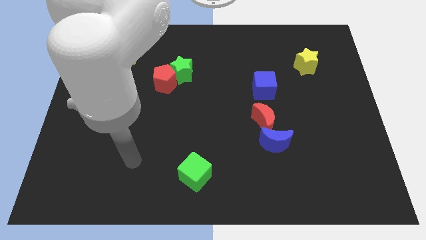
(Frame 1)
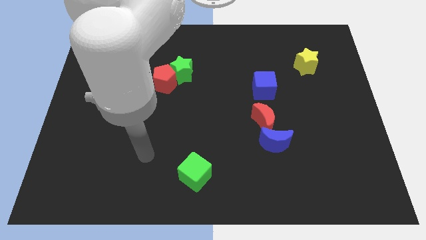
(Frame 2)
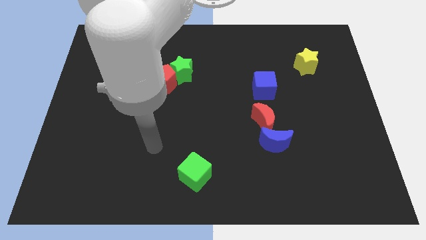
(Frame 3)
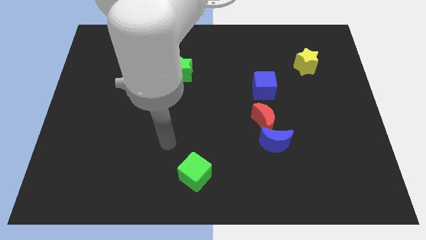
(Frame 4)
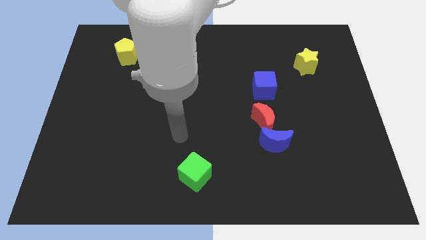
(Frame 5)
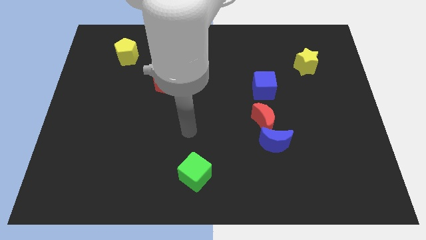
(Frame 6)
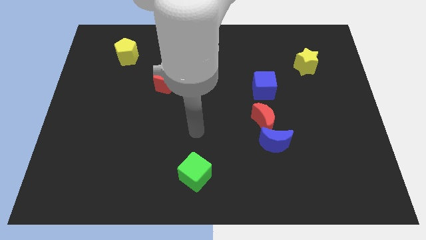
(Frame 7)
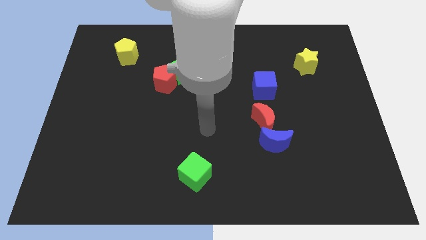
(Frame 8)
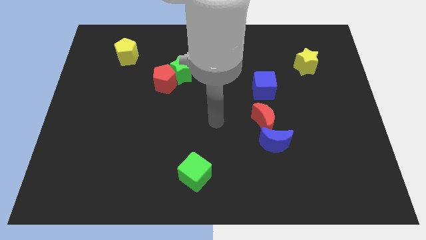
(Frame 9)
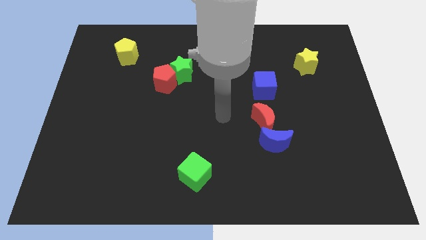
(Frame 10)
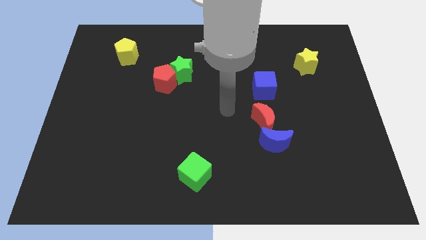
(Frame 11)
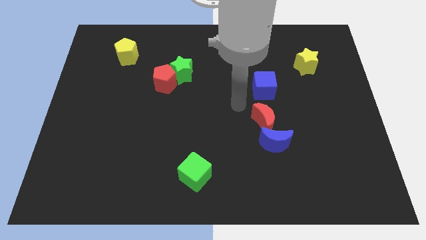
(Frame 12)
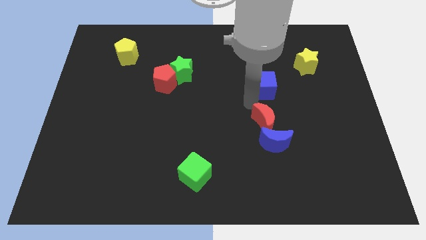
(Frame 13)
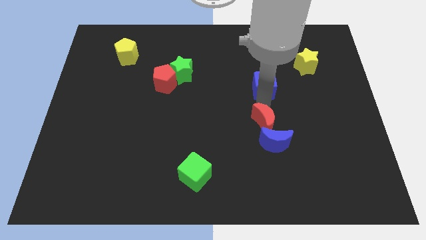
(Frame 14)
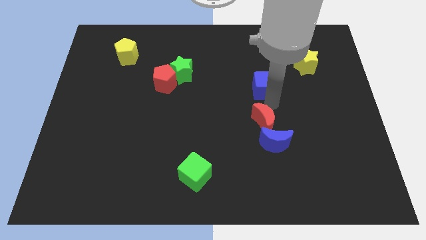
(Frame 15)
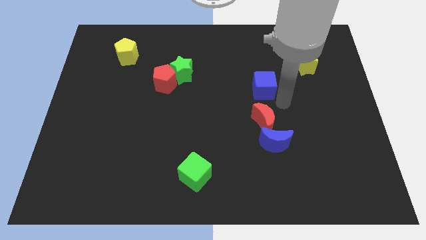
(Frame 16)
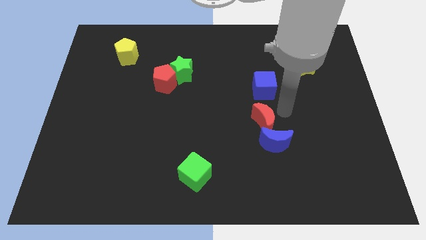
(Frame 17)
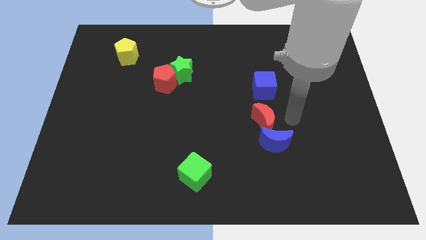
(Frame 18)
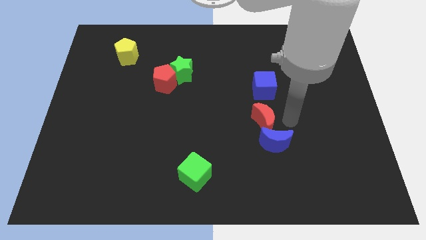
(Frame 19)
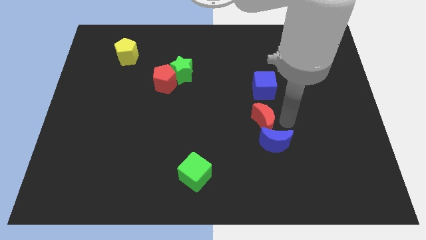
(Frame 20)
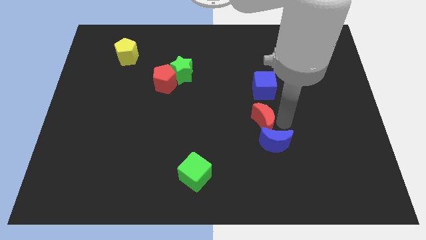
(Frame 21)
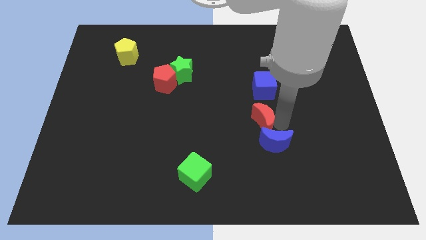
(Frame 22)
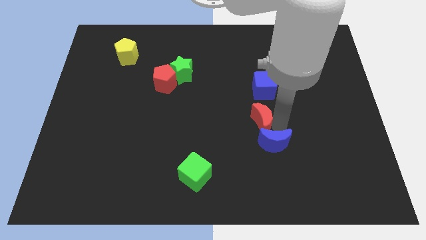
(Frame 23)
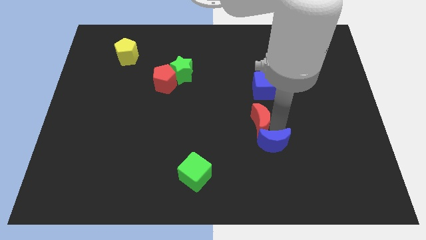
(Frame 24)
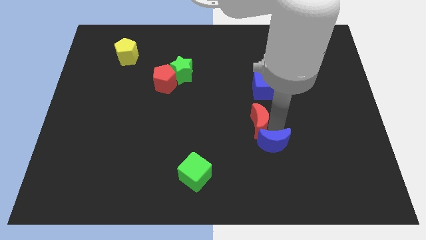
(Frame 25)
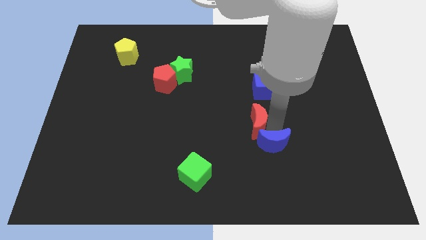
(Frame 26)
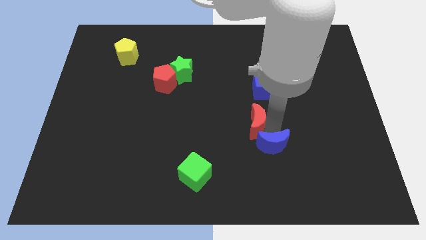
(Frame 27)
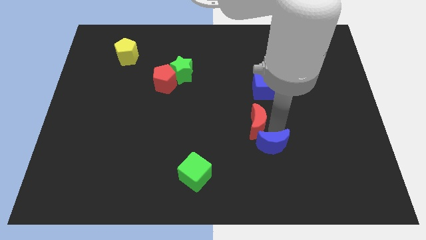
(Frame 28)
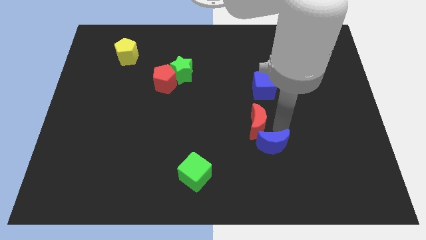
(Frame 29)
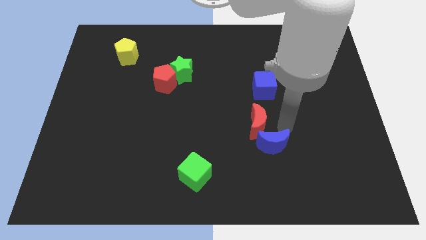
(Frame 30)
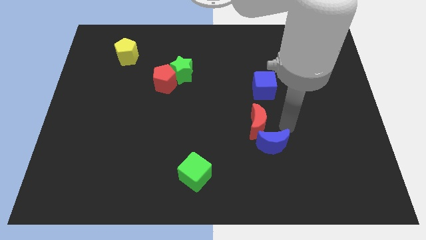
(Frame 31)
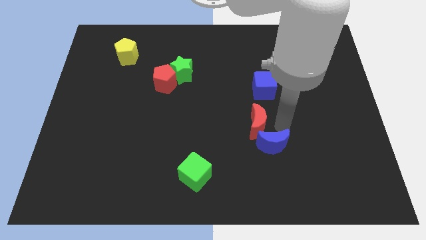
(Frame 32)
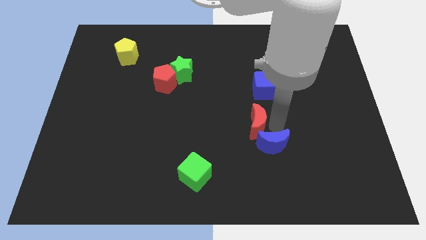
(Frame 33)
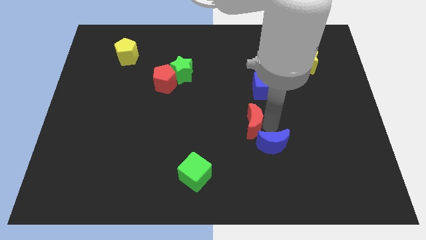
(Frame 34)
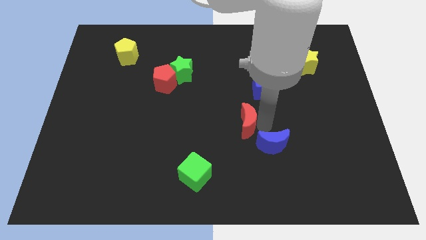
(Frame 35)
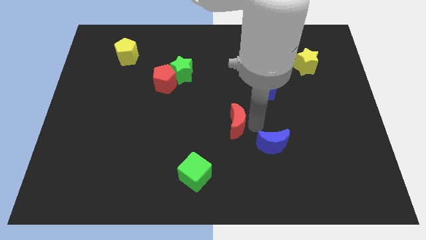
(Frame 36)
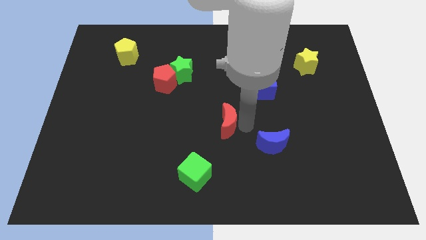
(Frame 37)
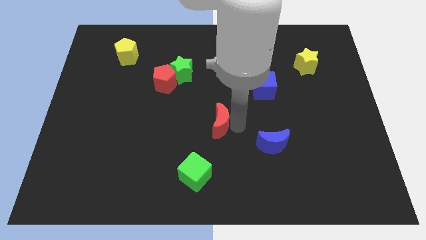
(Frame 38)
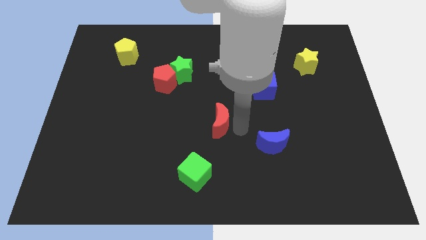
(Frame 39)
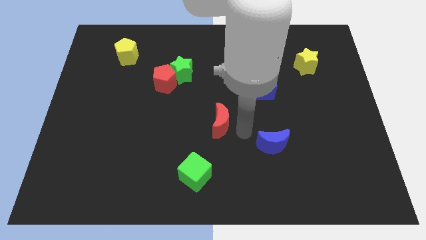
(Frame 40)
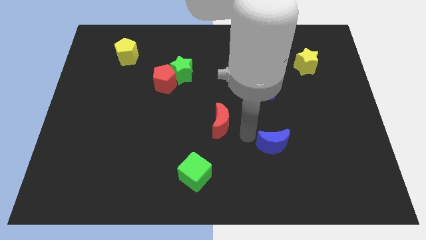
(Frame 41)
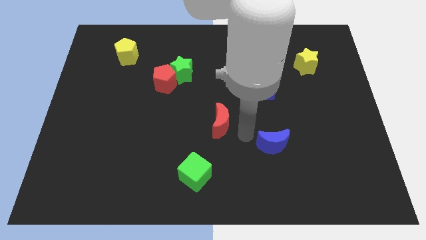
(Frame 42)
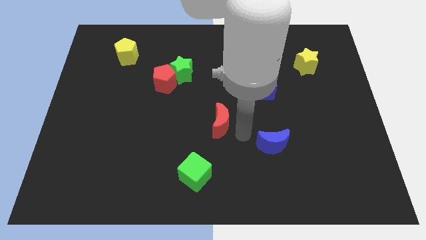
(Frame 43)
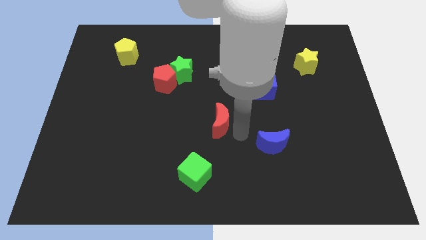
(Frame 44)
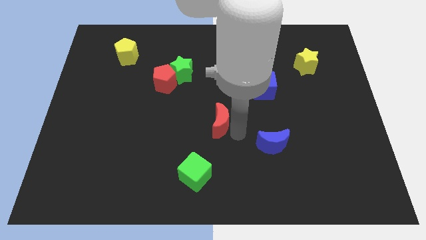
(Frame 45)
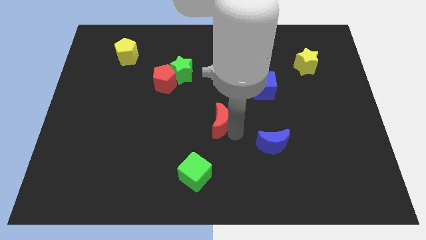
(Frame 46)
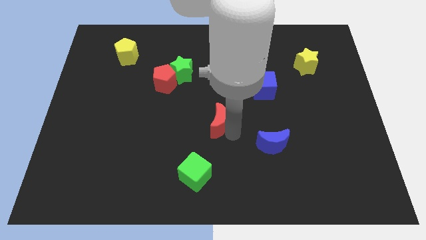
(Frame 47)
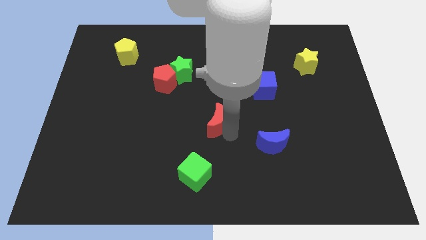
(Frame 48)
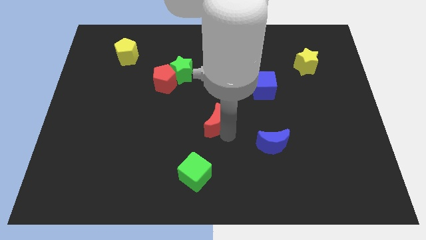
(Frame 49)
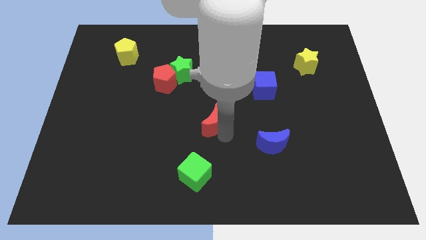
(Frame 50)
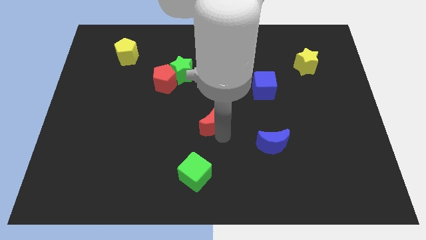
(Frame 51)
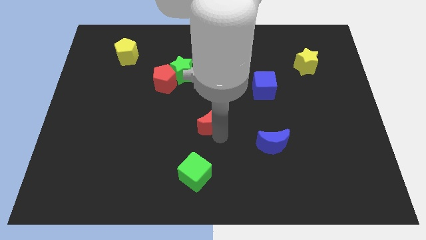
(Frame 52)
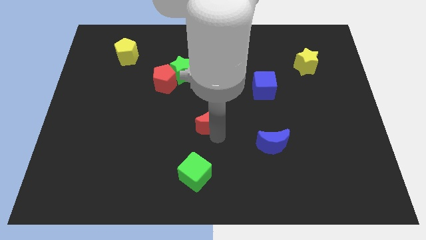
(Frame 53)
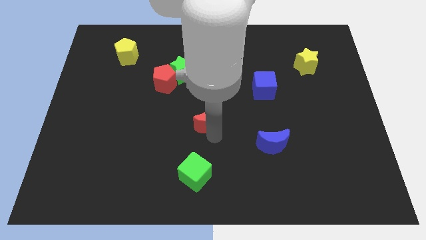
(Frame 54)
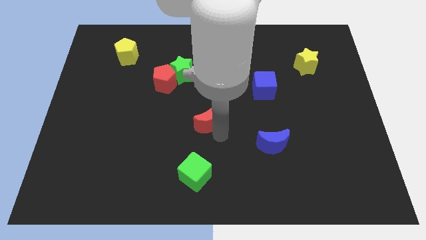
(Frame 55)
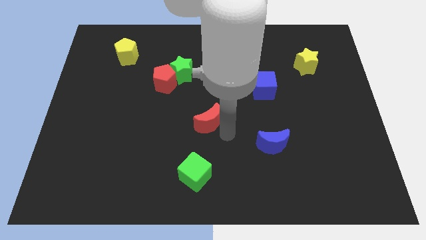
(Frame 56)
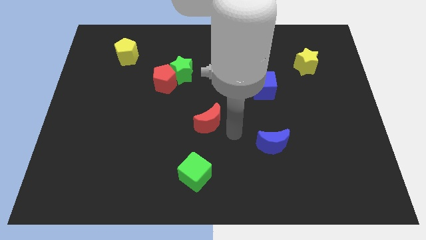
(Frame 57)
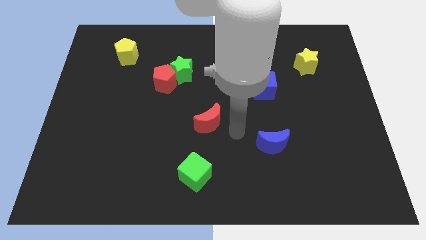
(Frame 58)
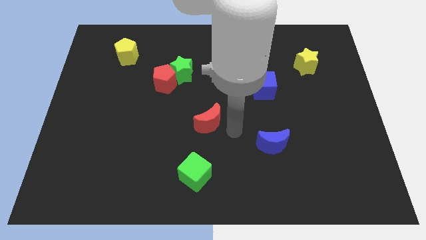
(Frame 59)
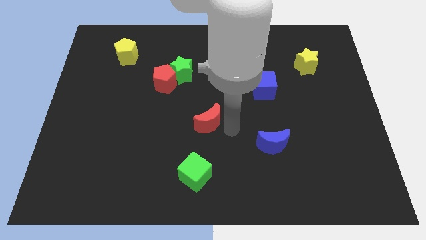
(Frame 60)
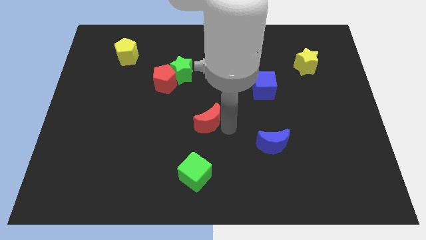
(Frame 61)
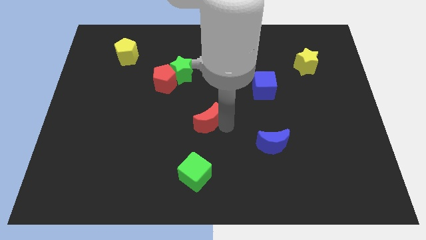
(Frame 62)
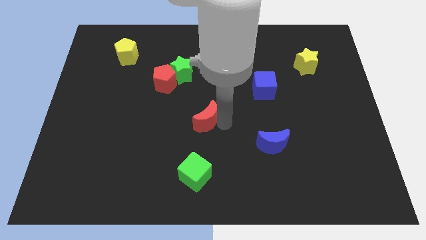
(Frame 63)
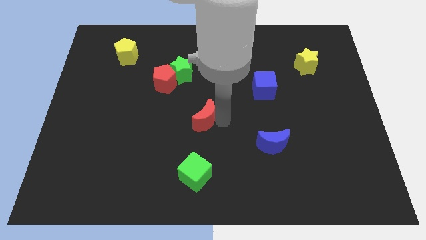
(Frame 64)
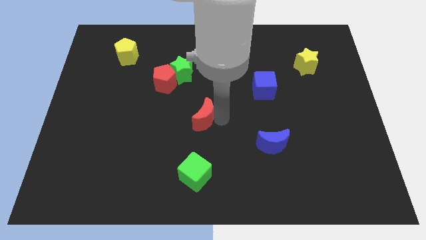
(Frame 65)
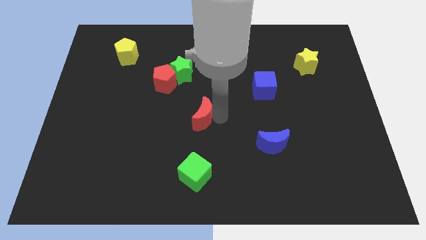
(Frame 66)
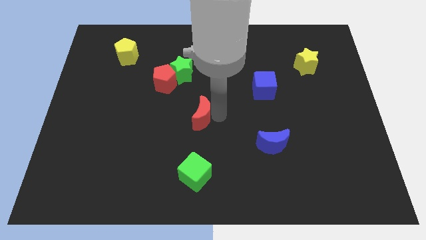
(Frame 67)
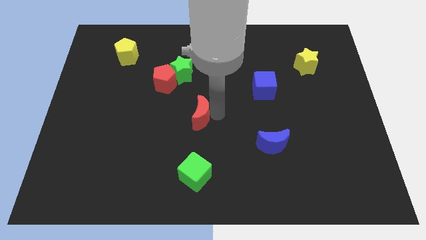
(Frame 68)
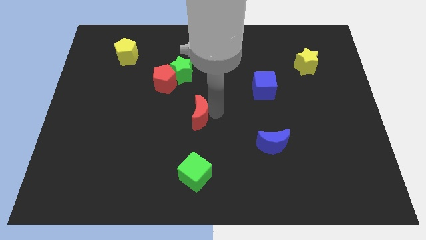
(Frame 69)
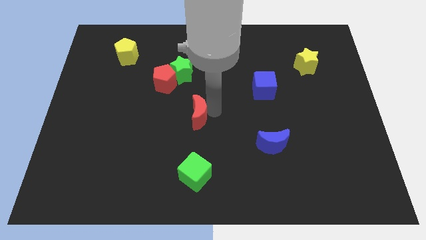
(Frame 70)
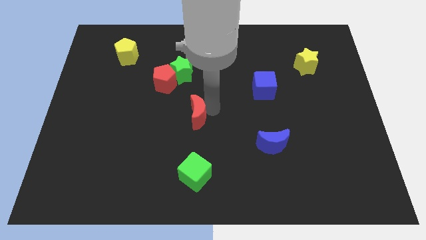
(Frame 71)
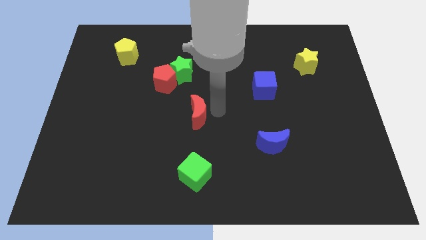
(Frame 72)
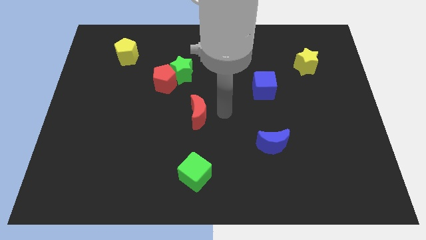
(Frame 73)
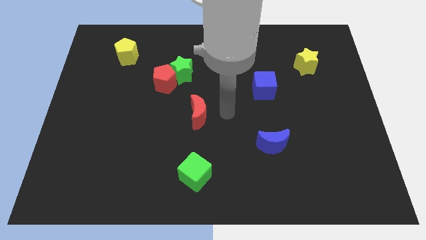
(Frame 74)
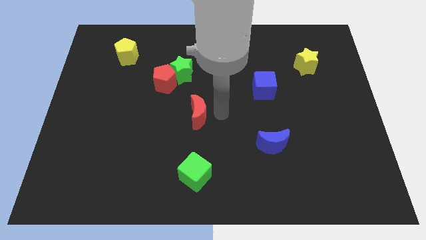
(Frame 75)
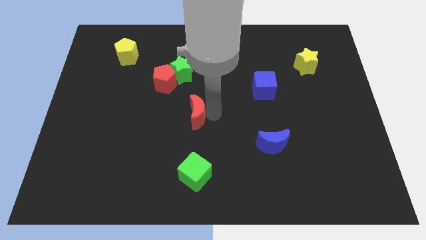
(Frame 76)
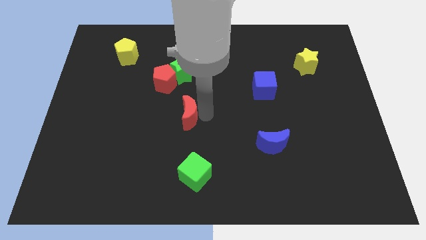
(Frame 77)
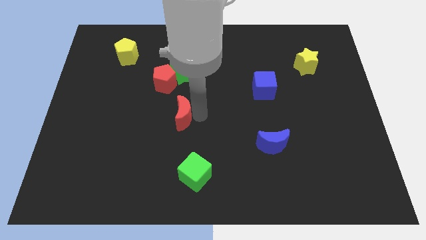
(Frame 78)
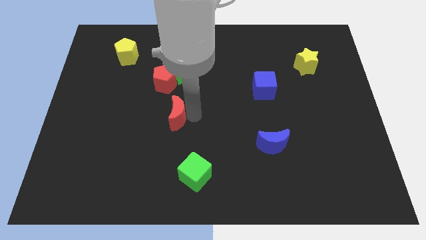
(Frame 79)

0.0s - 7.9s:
push the red moon left

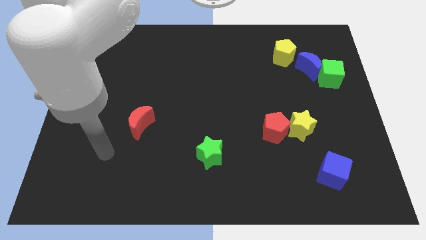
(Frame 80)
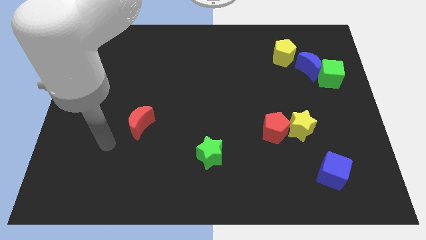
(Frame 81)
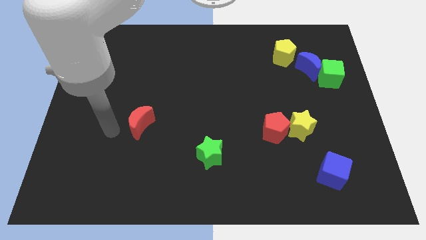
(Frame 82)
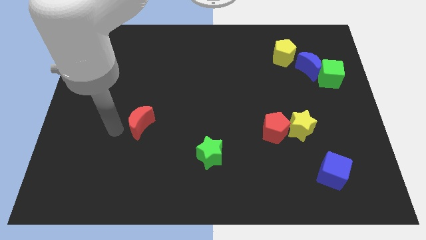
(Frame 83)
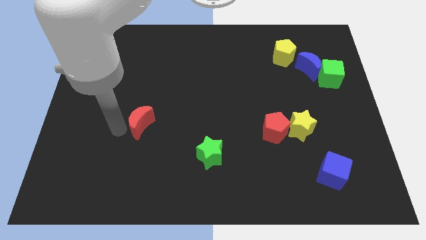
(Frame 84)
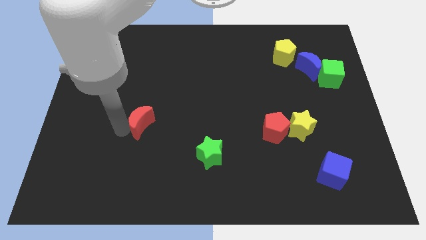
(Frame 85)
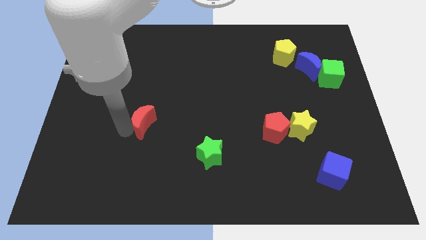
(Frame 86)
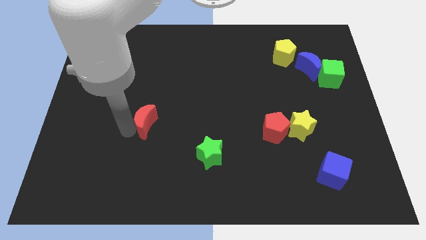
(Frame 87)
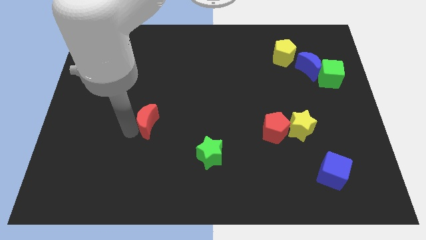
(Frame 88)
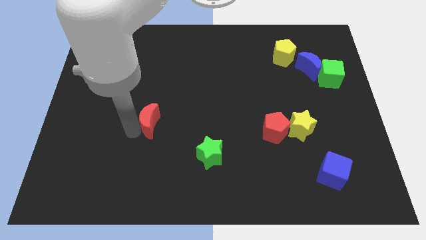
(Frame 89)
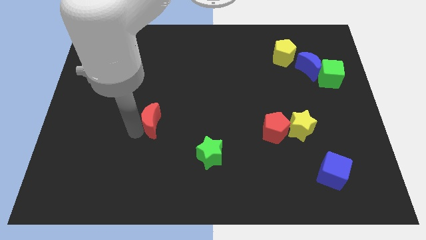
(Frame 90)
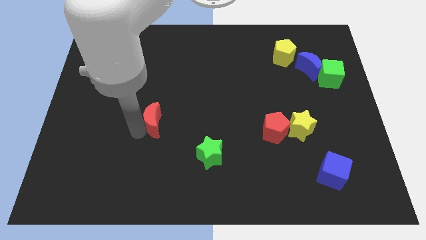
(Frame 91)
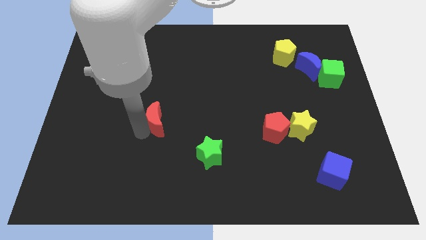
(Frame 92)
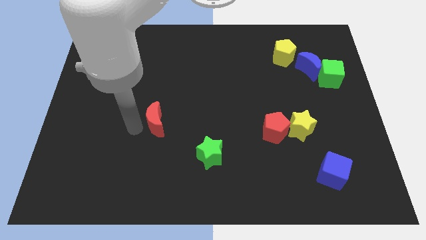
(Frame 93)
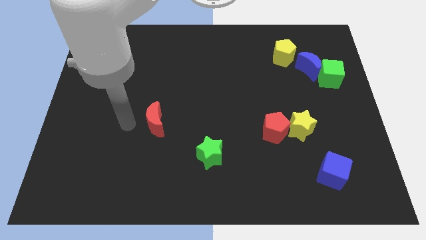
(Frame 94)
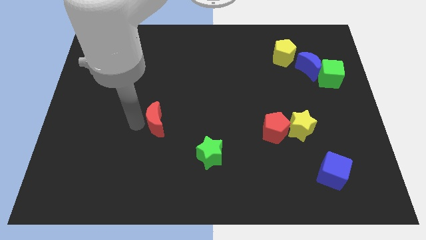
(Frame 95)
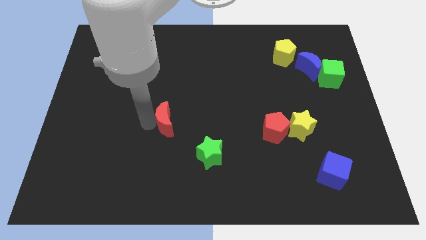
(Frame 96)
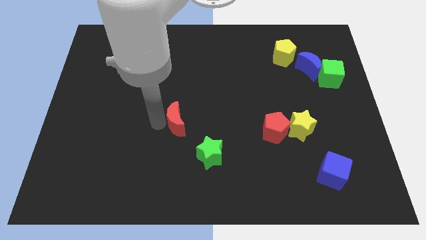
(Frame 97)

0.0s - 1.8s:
slightly push the red moon right
